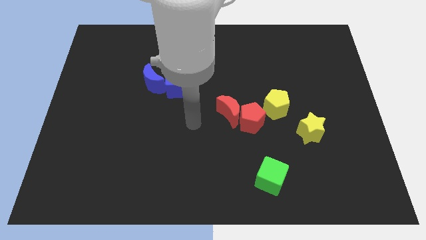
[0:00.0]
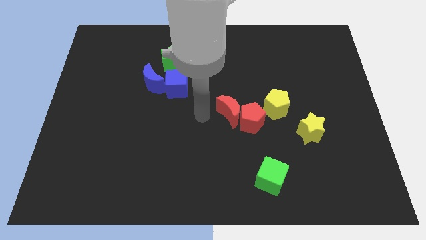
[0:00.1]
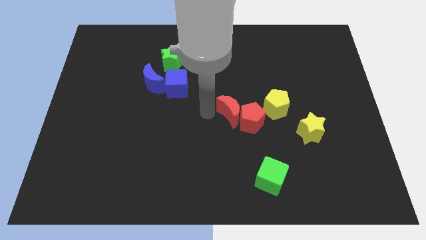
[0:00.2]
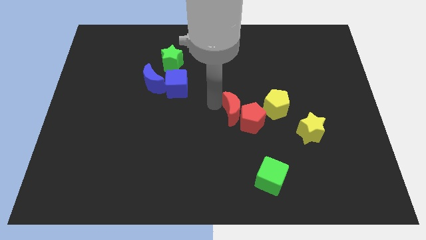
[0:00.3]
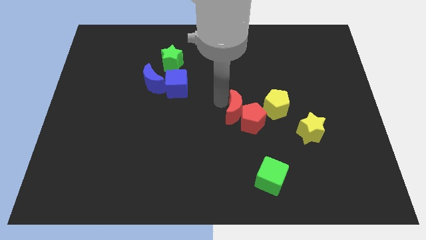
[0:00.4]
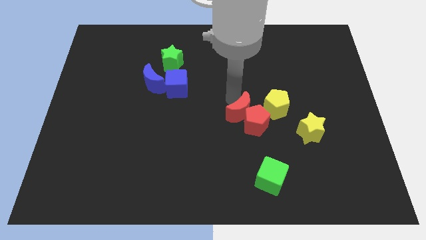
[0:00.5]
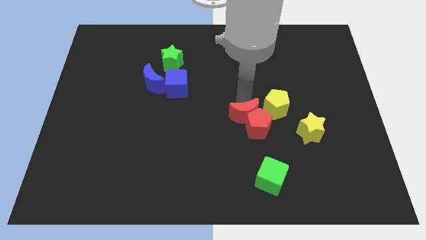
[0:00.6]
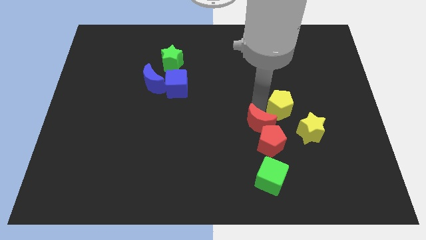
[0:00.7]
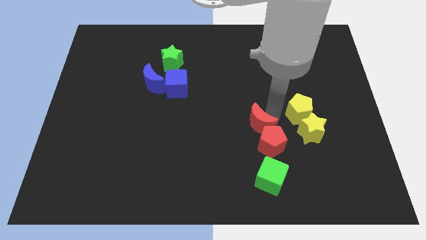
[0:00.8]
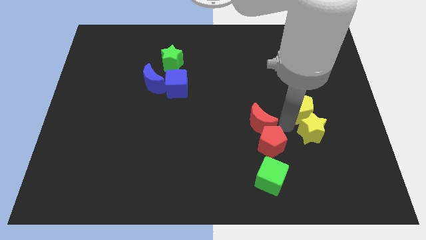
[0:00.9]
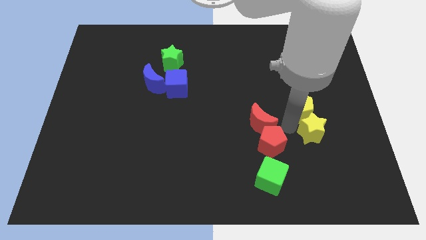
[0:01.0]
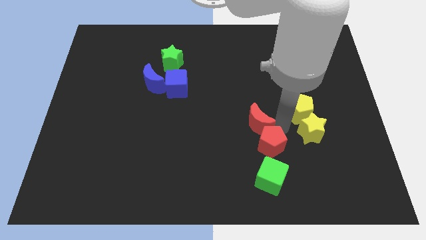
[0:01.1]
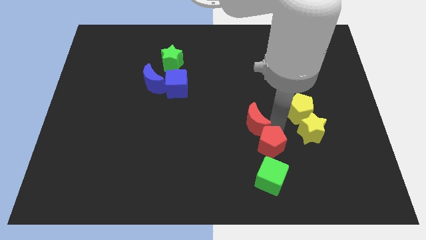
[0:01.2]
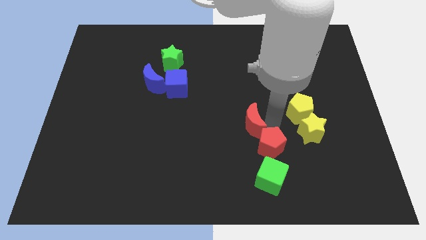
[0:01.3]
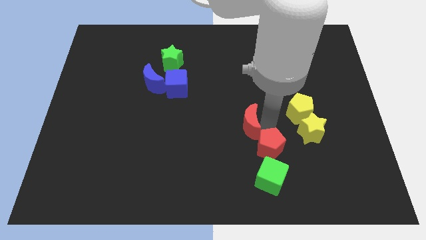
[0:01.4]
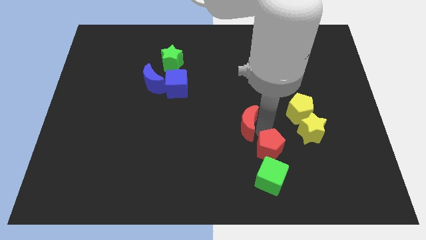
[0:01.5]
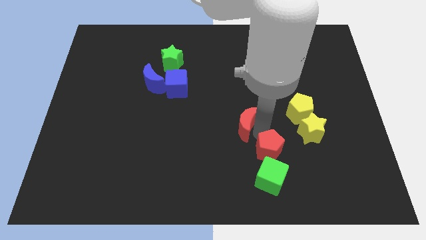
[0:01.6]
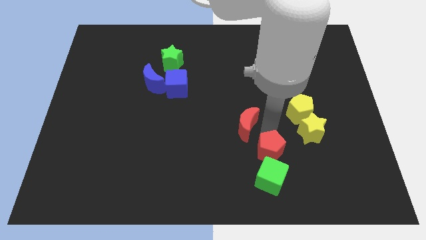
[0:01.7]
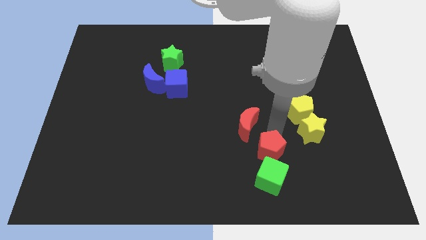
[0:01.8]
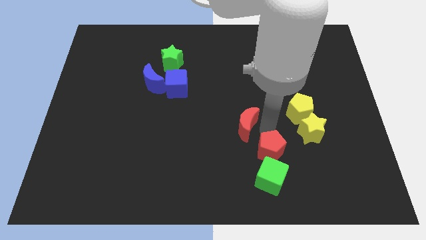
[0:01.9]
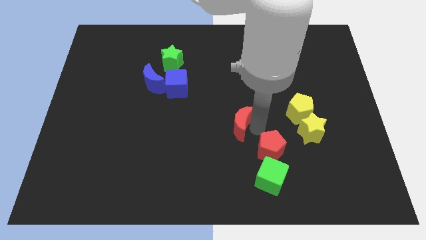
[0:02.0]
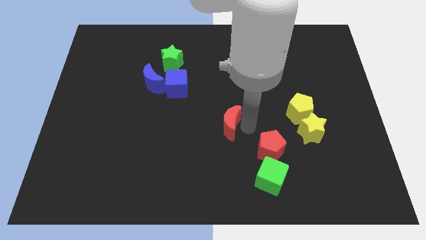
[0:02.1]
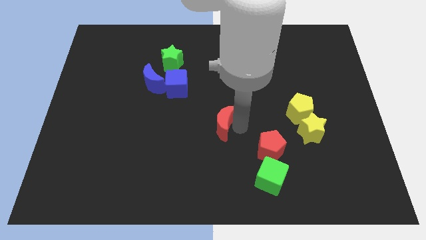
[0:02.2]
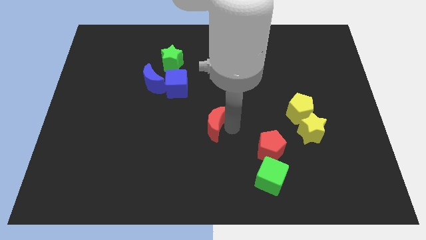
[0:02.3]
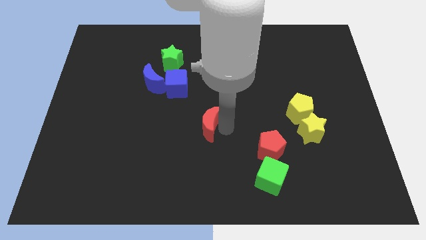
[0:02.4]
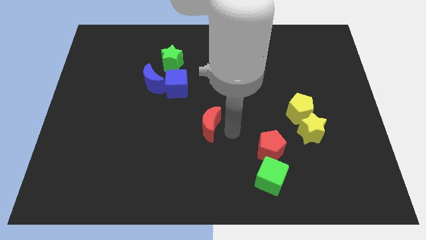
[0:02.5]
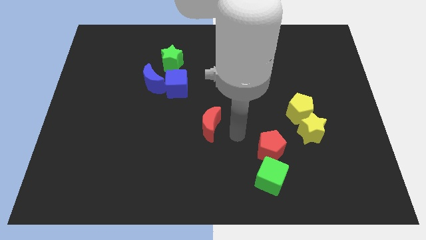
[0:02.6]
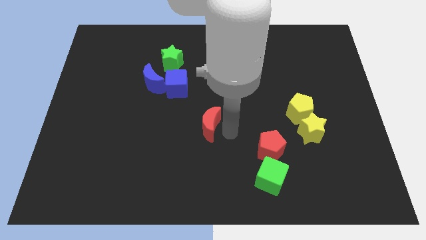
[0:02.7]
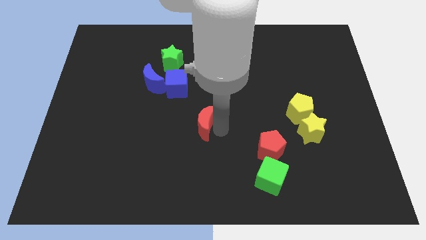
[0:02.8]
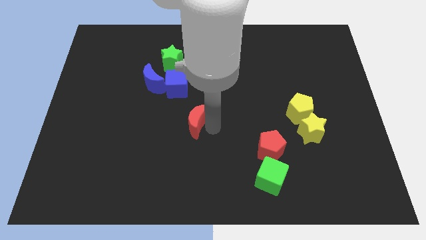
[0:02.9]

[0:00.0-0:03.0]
move the red moon a little bit to the left

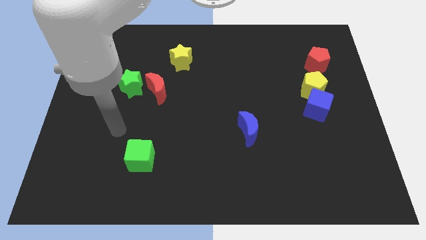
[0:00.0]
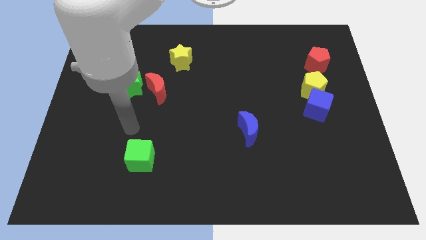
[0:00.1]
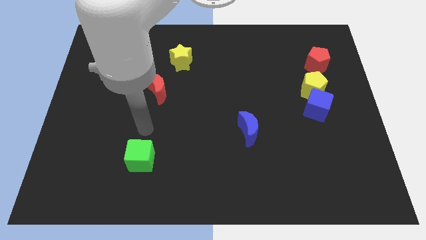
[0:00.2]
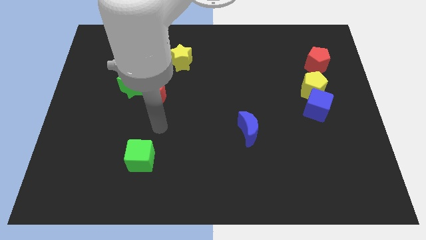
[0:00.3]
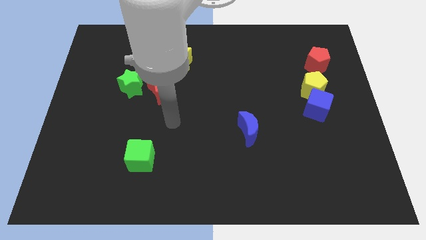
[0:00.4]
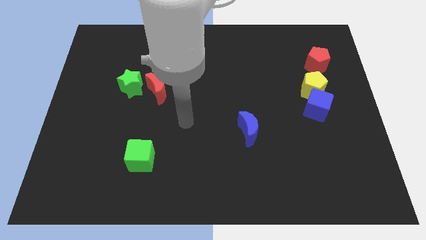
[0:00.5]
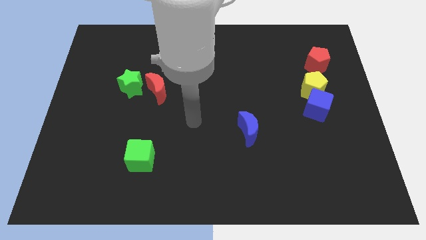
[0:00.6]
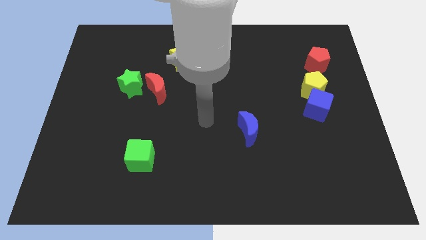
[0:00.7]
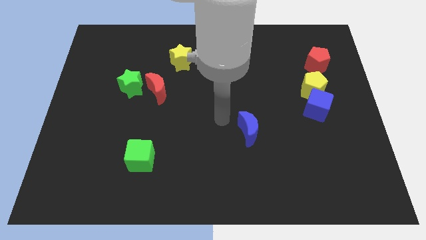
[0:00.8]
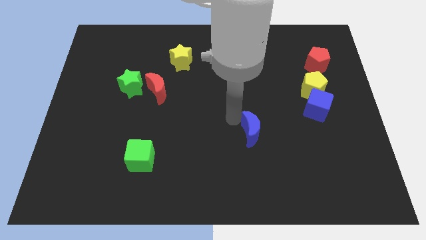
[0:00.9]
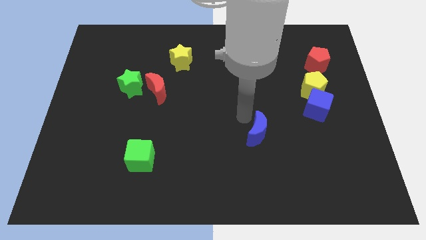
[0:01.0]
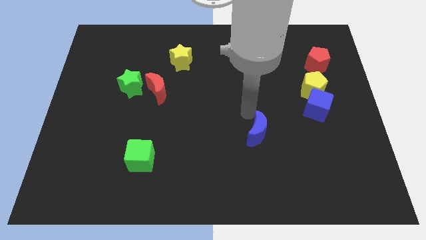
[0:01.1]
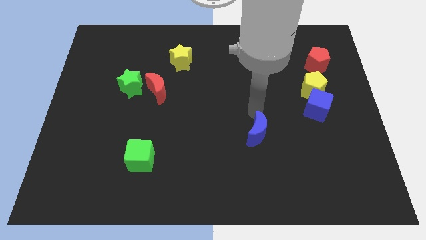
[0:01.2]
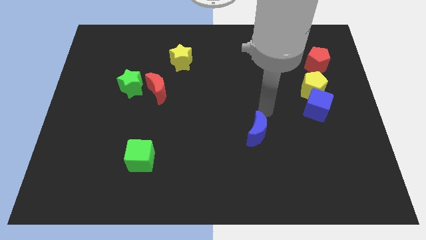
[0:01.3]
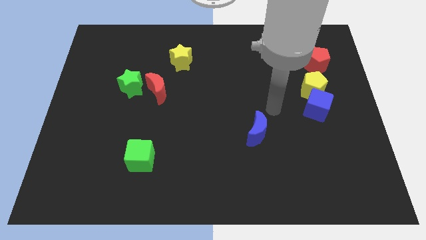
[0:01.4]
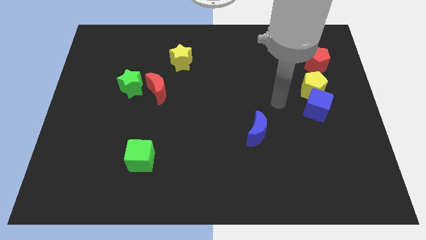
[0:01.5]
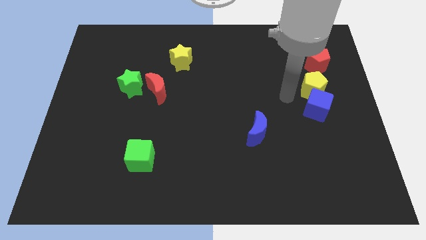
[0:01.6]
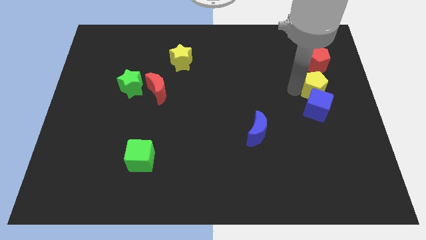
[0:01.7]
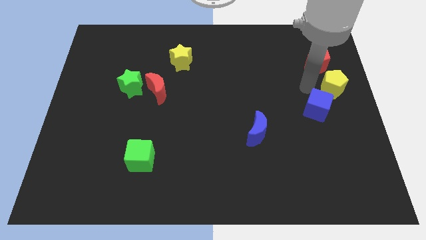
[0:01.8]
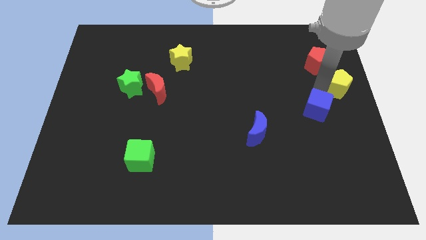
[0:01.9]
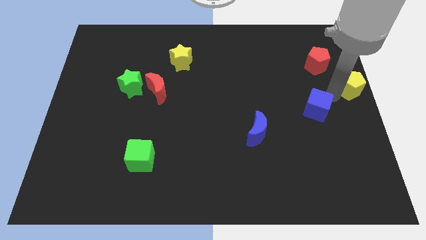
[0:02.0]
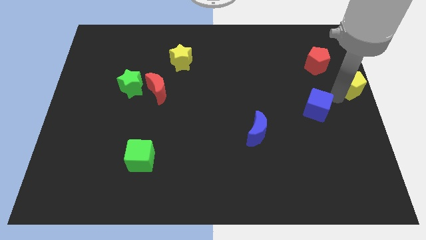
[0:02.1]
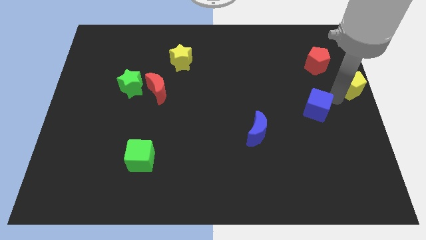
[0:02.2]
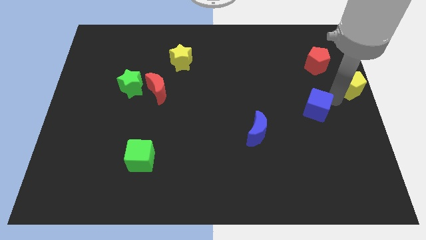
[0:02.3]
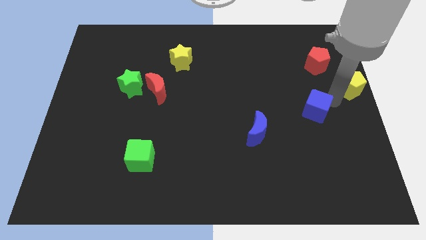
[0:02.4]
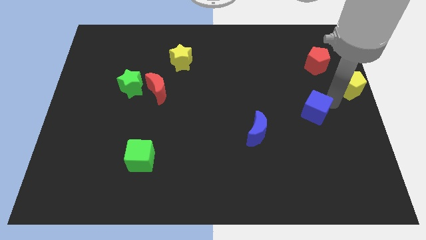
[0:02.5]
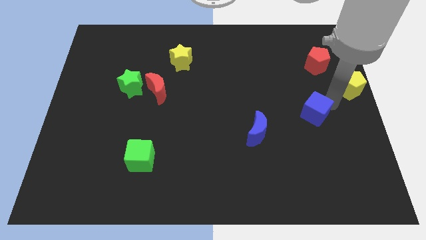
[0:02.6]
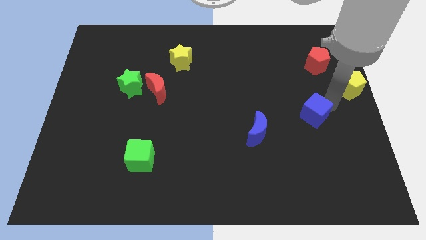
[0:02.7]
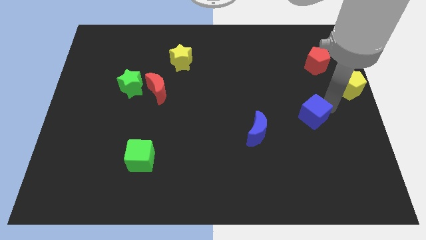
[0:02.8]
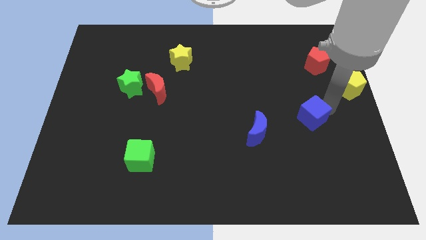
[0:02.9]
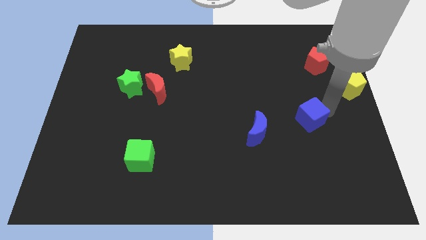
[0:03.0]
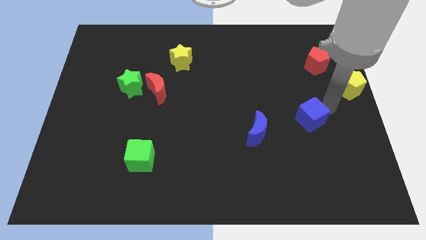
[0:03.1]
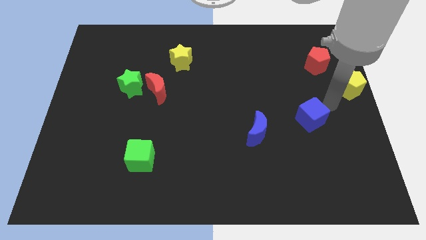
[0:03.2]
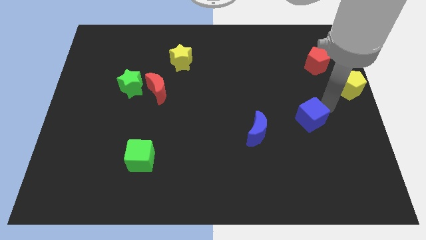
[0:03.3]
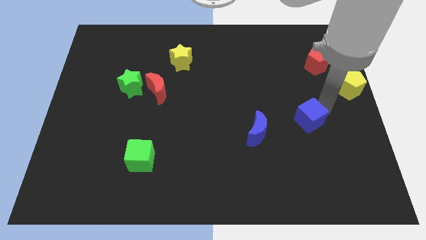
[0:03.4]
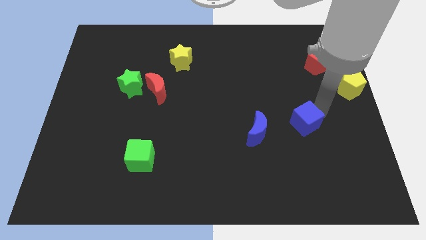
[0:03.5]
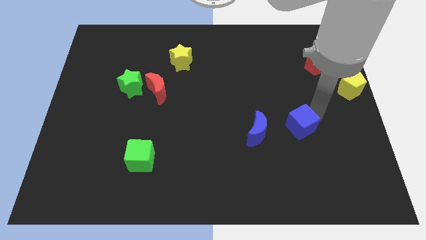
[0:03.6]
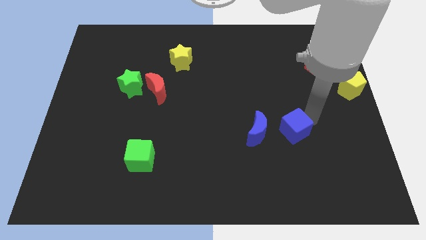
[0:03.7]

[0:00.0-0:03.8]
slide the blue cube a little diagonally downwards and to the left

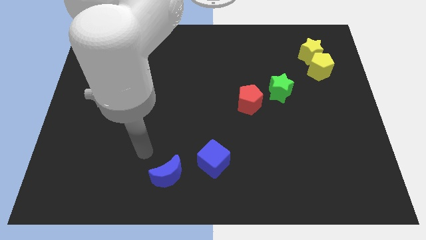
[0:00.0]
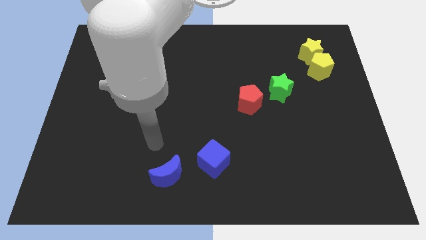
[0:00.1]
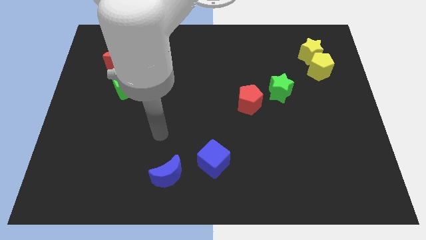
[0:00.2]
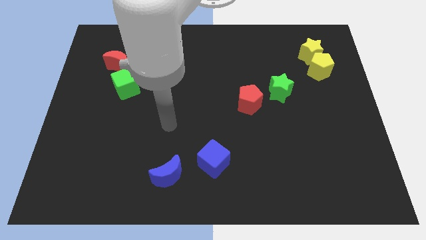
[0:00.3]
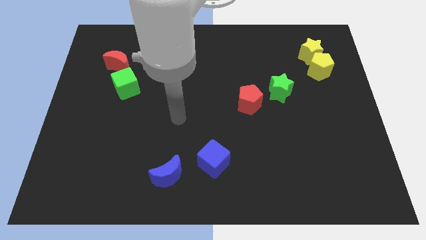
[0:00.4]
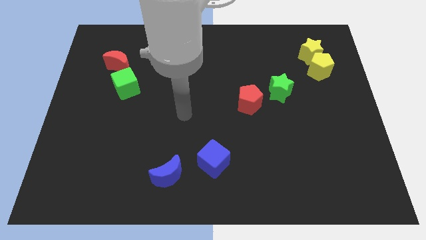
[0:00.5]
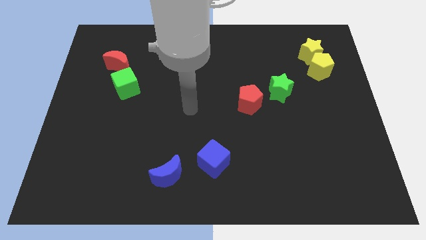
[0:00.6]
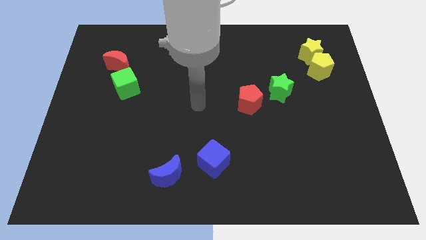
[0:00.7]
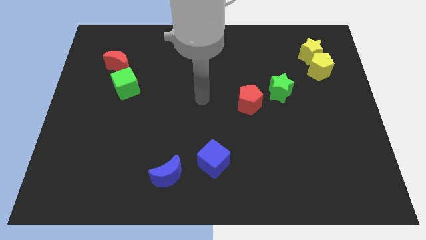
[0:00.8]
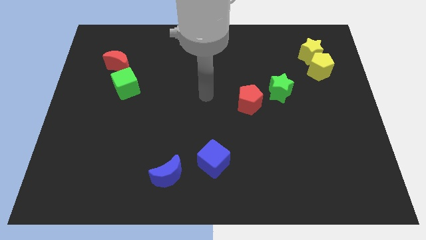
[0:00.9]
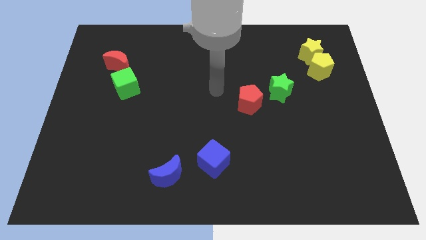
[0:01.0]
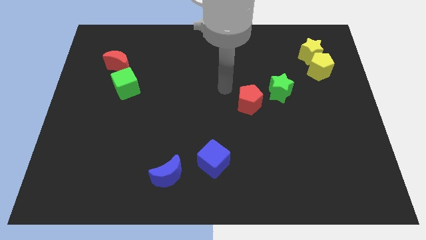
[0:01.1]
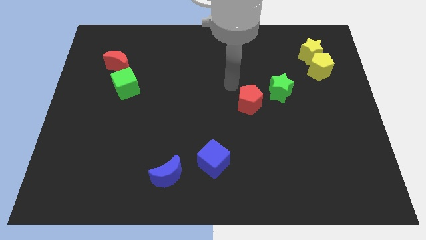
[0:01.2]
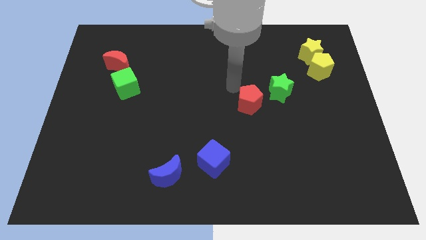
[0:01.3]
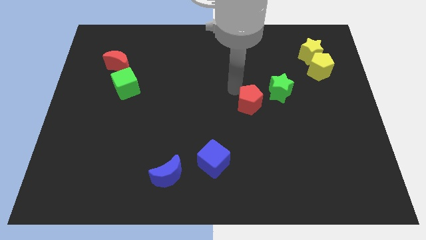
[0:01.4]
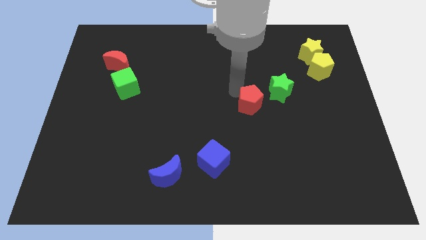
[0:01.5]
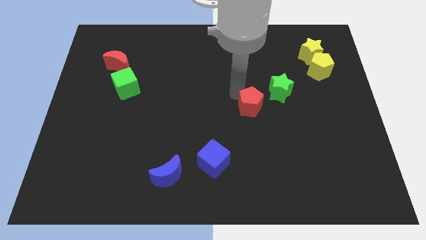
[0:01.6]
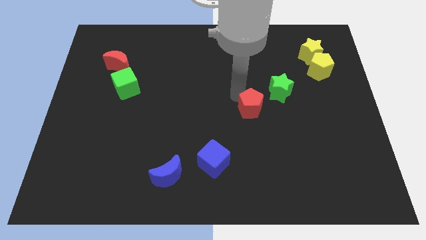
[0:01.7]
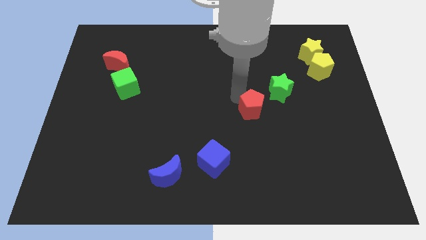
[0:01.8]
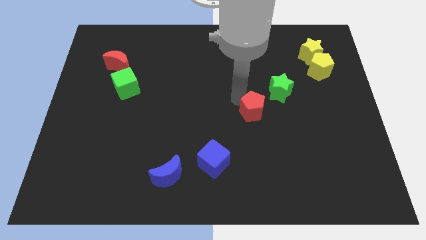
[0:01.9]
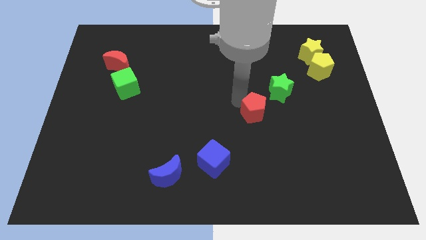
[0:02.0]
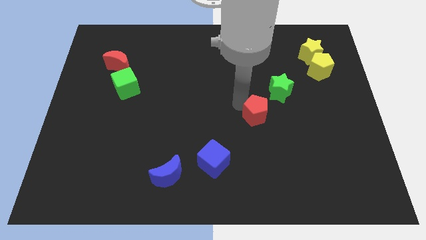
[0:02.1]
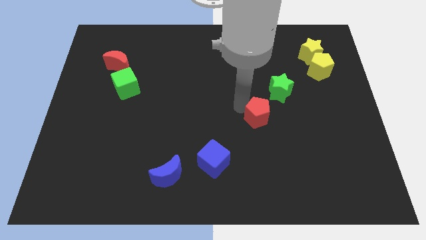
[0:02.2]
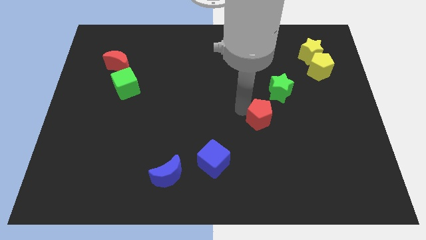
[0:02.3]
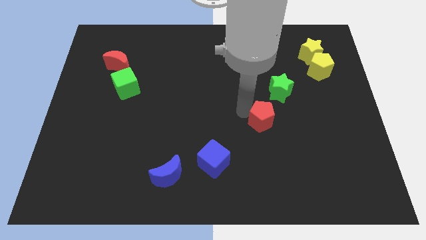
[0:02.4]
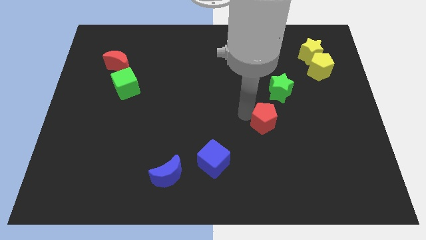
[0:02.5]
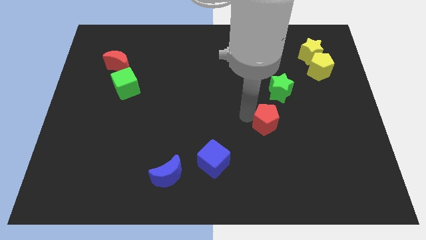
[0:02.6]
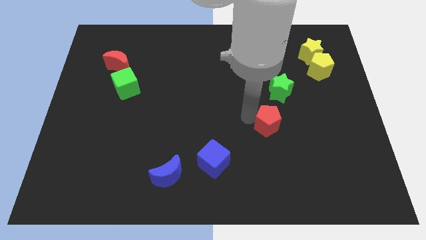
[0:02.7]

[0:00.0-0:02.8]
slide the red pentagon slightly down and then right
